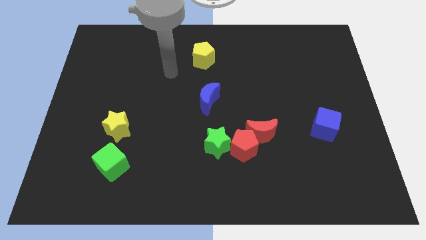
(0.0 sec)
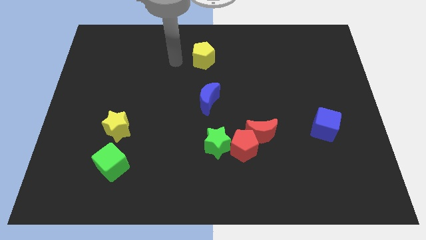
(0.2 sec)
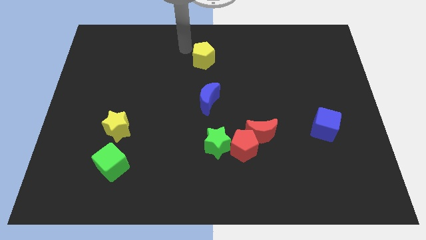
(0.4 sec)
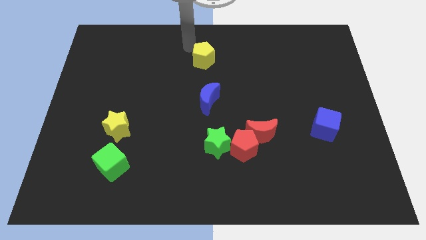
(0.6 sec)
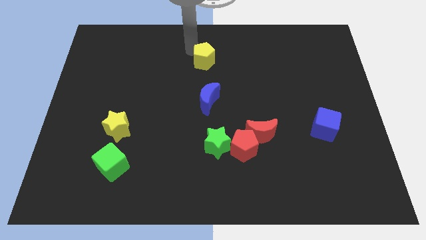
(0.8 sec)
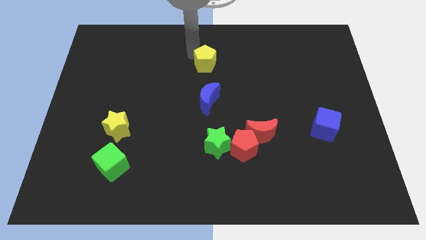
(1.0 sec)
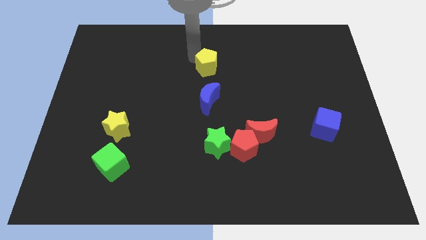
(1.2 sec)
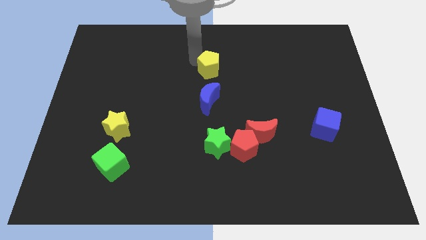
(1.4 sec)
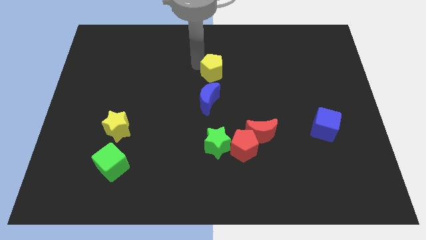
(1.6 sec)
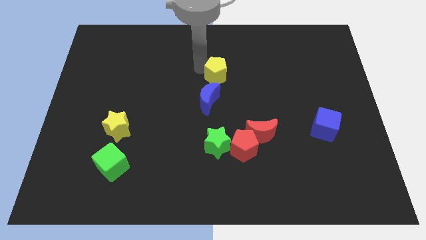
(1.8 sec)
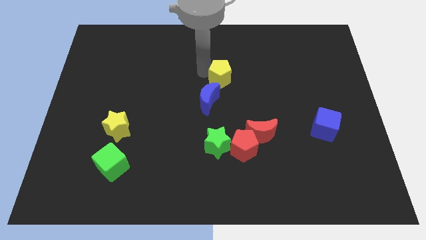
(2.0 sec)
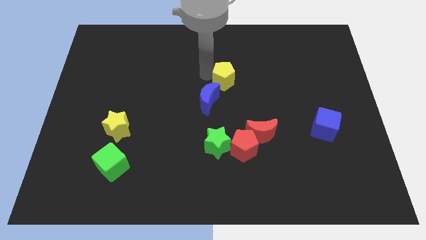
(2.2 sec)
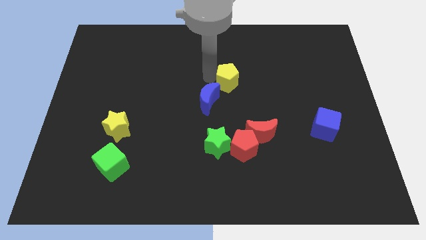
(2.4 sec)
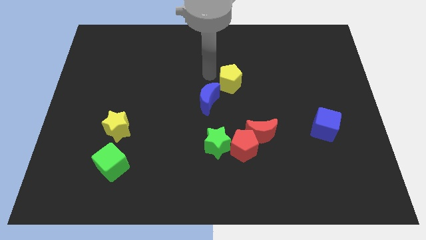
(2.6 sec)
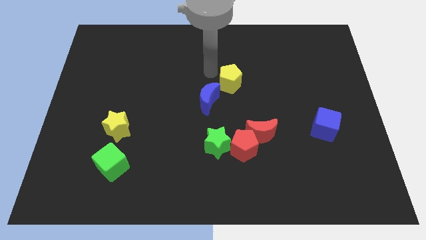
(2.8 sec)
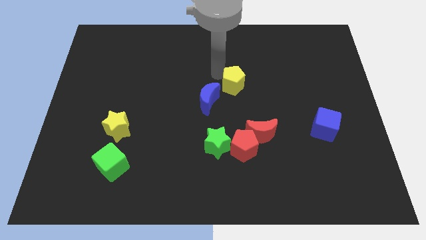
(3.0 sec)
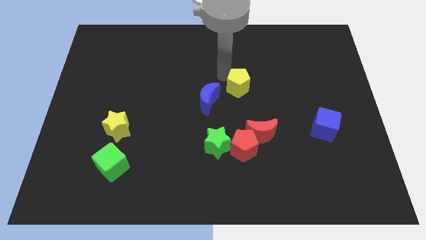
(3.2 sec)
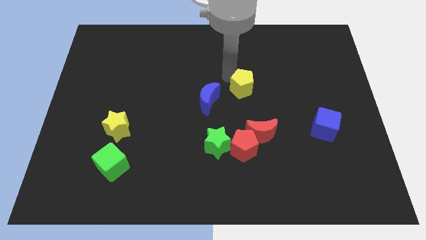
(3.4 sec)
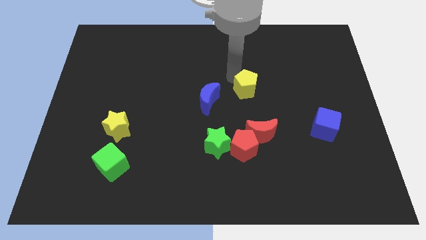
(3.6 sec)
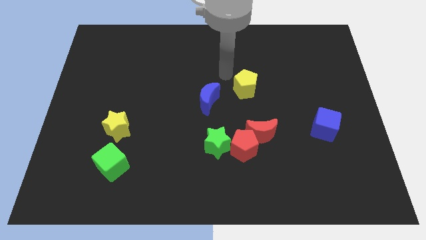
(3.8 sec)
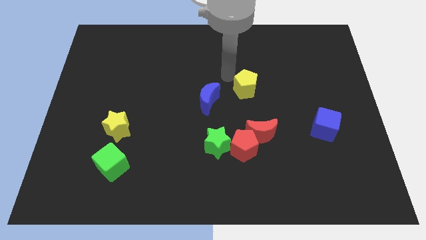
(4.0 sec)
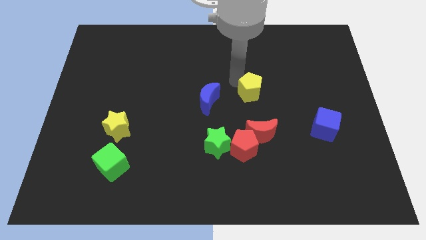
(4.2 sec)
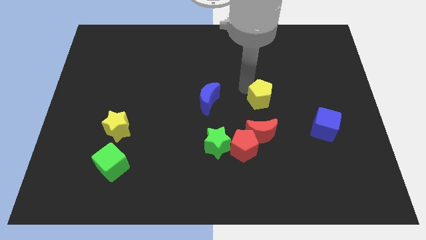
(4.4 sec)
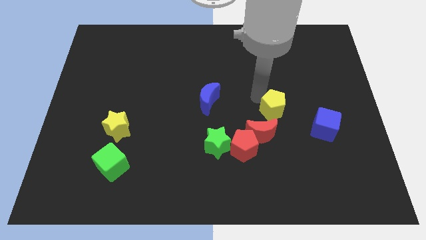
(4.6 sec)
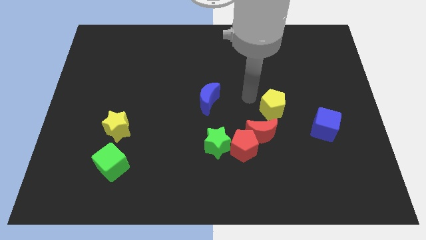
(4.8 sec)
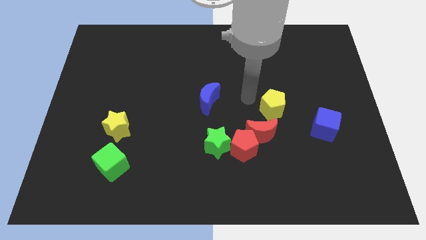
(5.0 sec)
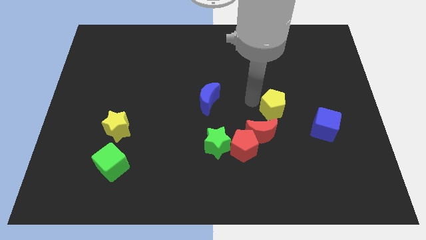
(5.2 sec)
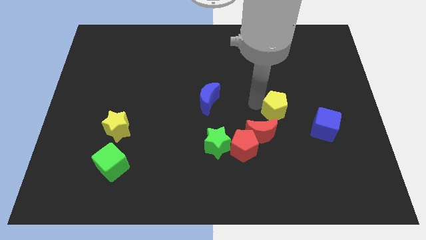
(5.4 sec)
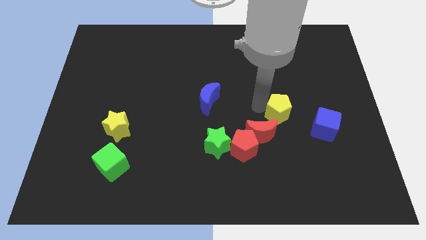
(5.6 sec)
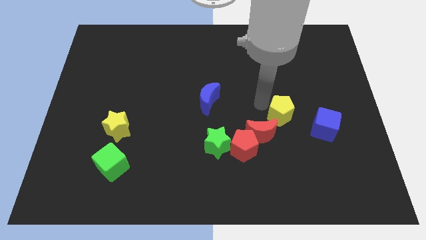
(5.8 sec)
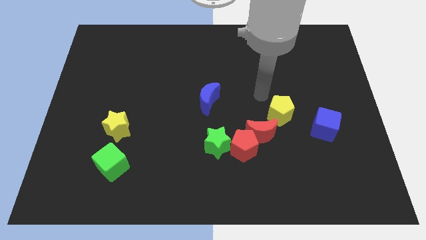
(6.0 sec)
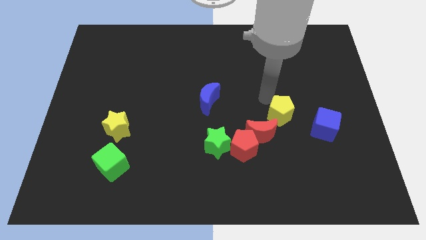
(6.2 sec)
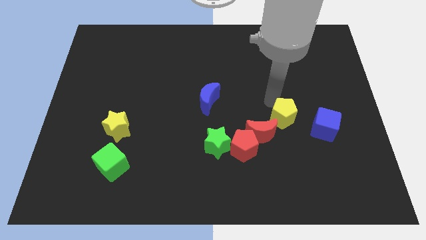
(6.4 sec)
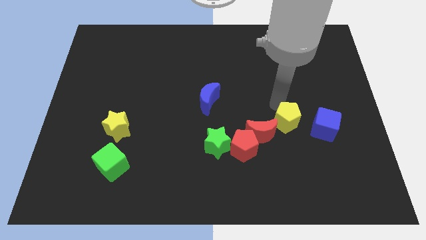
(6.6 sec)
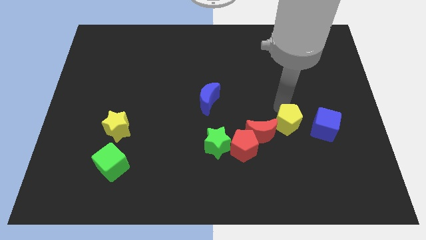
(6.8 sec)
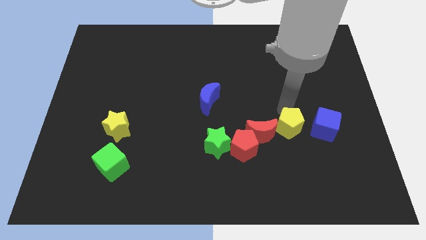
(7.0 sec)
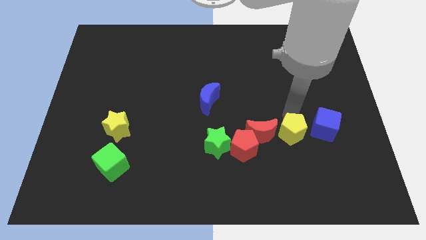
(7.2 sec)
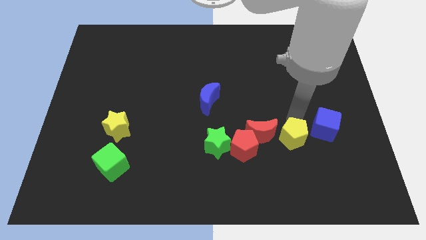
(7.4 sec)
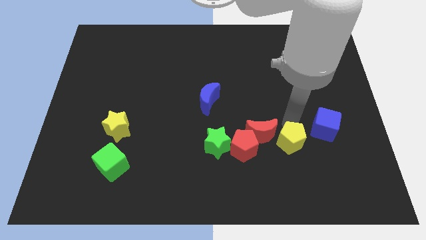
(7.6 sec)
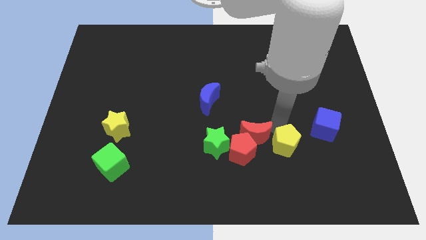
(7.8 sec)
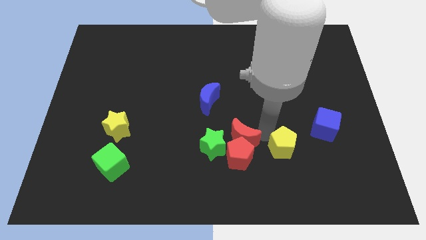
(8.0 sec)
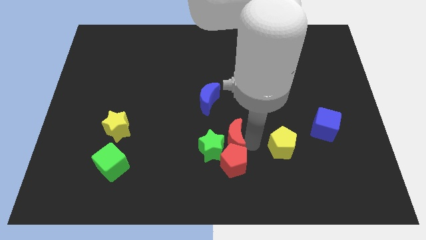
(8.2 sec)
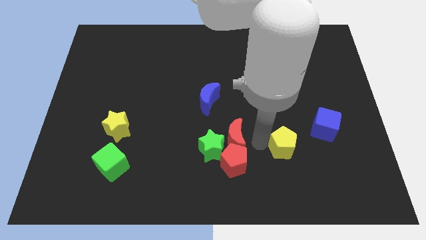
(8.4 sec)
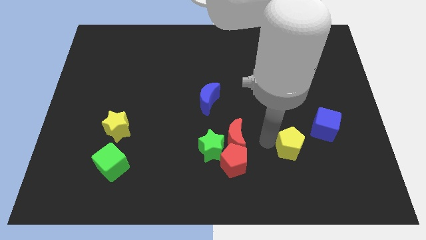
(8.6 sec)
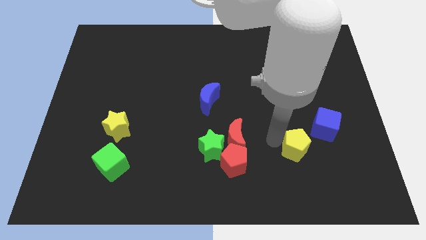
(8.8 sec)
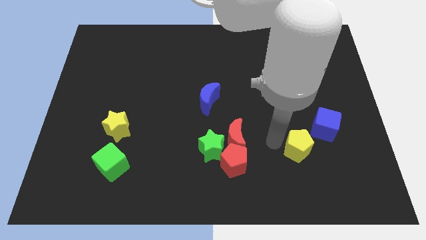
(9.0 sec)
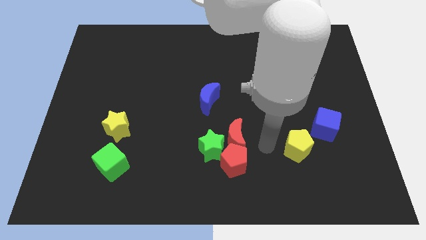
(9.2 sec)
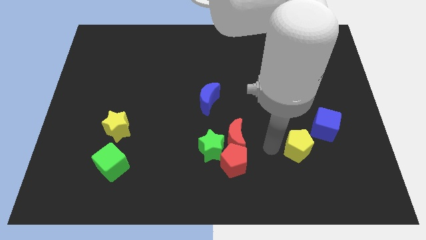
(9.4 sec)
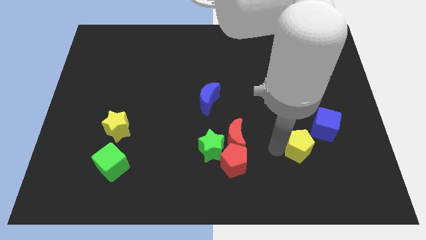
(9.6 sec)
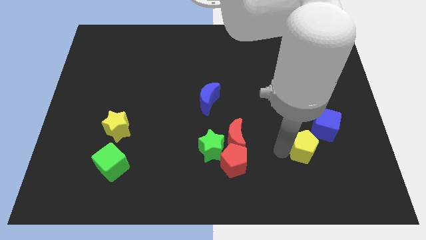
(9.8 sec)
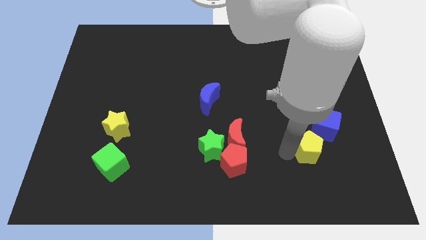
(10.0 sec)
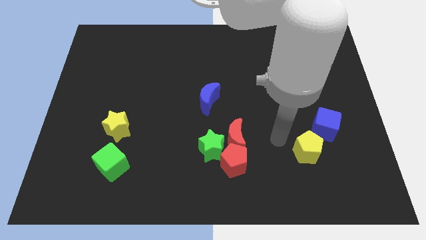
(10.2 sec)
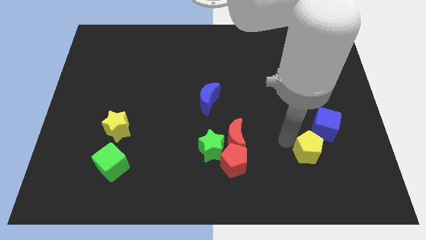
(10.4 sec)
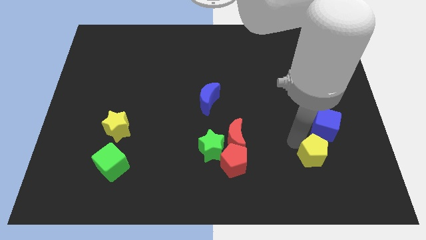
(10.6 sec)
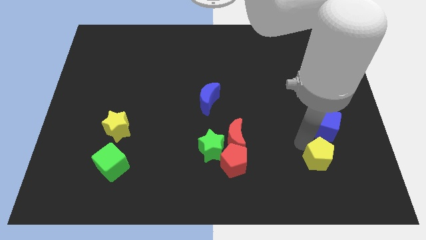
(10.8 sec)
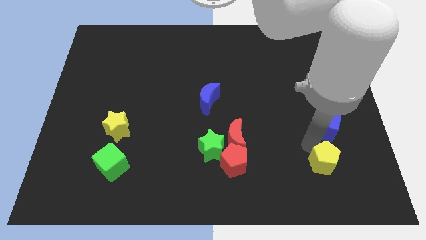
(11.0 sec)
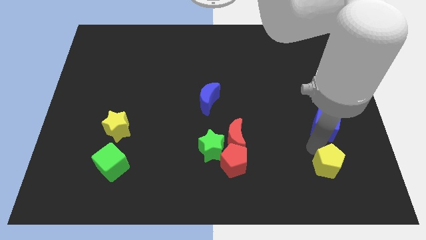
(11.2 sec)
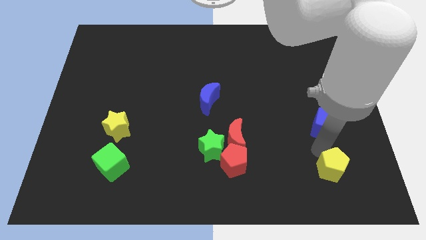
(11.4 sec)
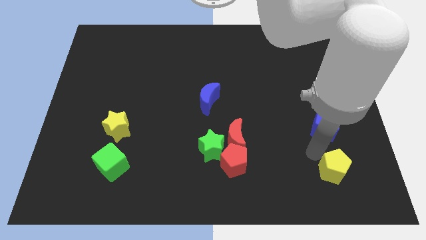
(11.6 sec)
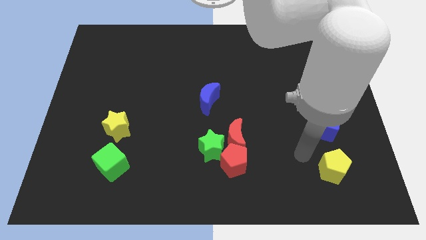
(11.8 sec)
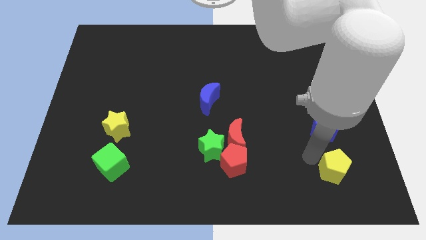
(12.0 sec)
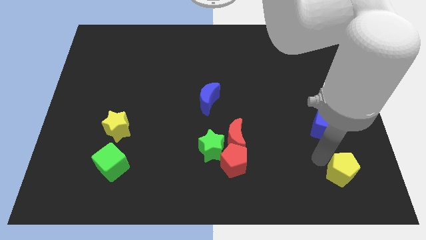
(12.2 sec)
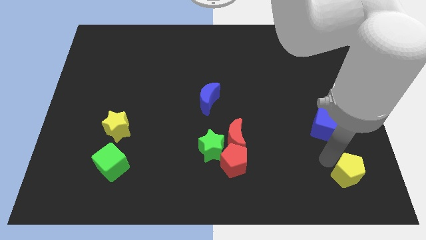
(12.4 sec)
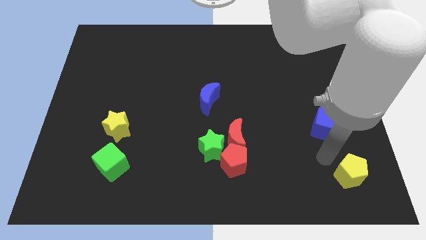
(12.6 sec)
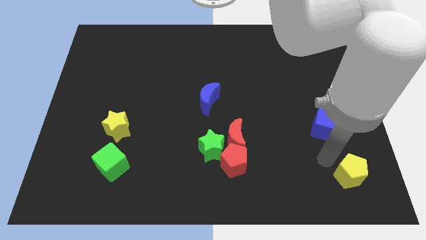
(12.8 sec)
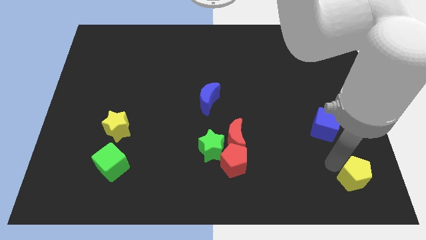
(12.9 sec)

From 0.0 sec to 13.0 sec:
push the yellow pentagon to the bottom right of the board
